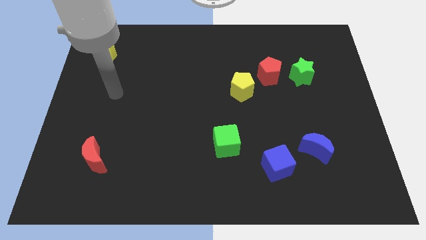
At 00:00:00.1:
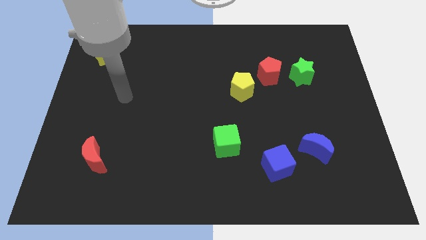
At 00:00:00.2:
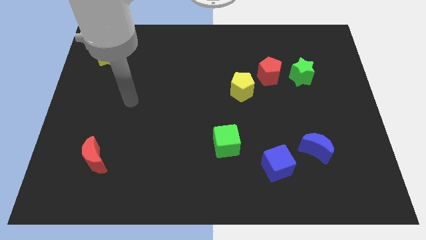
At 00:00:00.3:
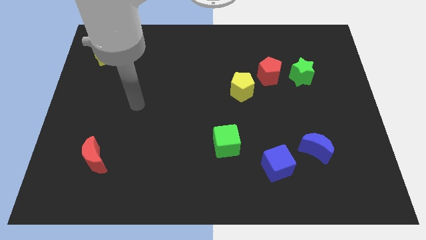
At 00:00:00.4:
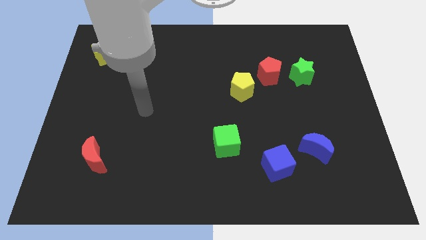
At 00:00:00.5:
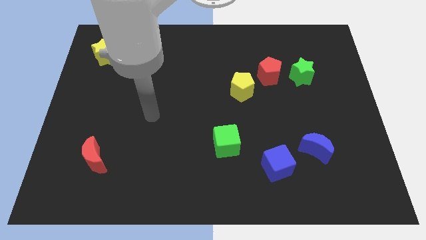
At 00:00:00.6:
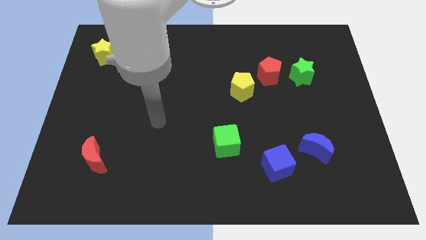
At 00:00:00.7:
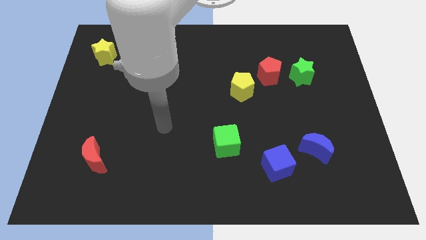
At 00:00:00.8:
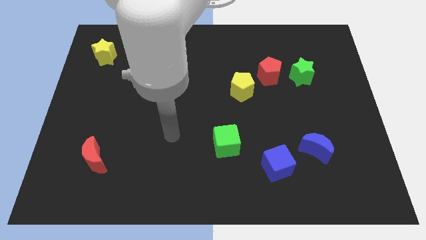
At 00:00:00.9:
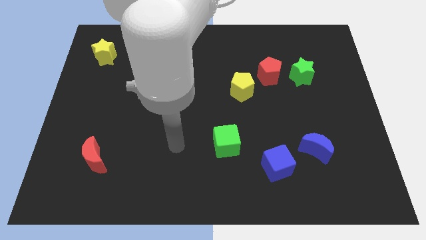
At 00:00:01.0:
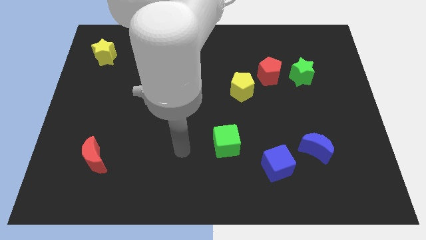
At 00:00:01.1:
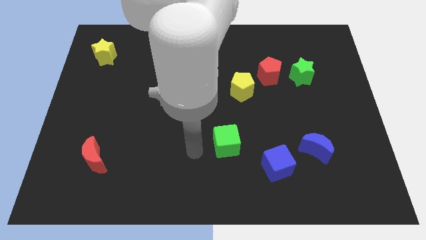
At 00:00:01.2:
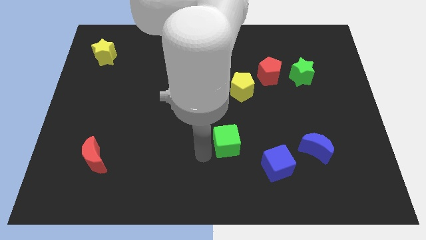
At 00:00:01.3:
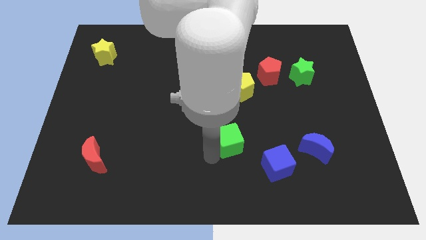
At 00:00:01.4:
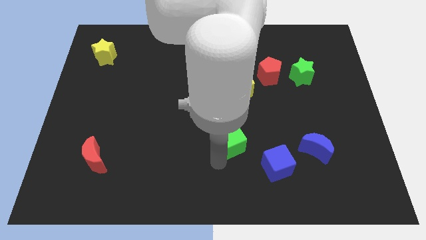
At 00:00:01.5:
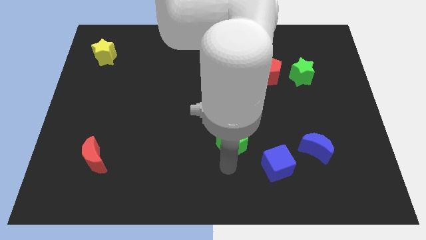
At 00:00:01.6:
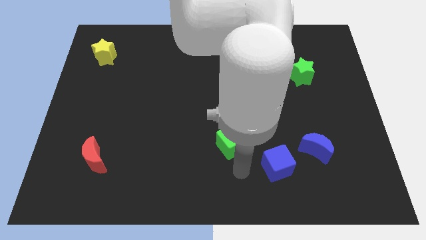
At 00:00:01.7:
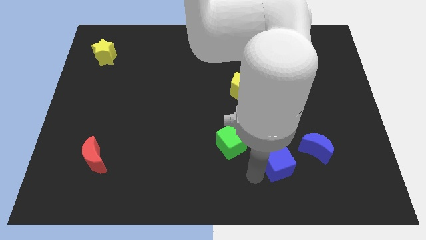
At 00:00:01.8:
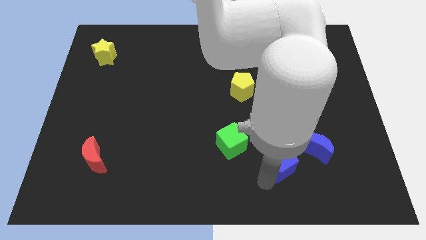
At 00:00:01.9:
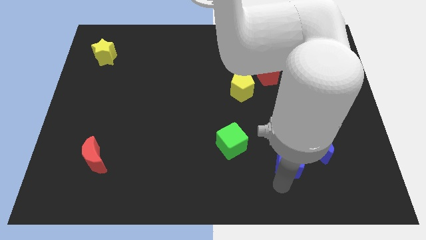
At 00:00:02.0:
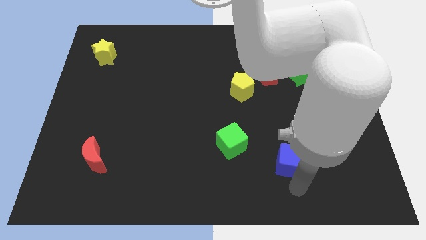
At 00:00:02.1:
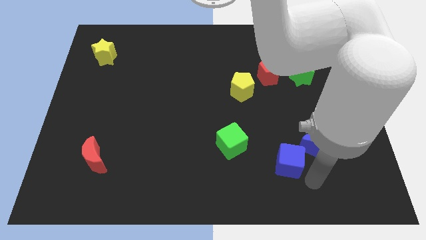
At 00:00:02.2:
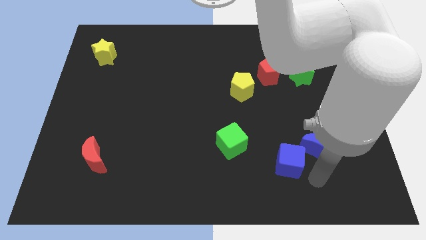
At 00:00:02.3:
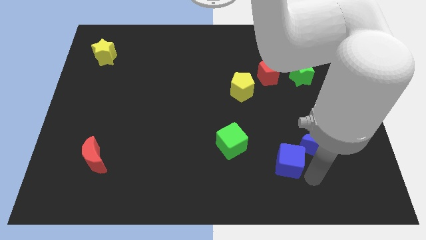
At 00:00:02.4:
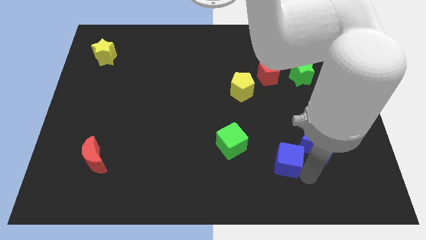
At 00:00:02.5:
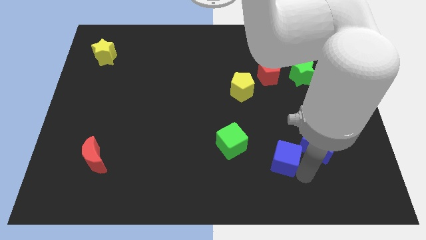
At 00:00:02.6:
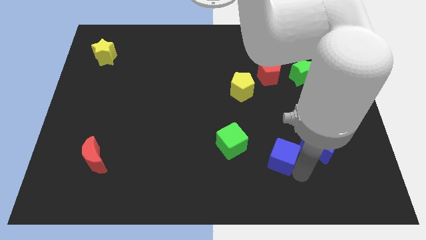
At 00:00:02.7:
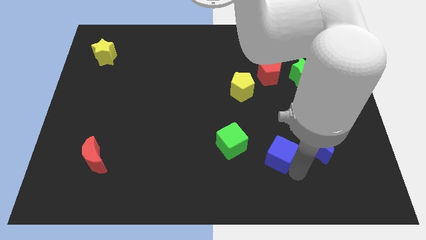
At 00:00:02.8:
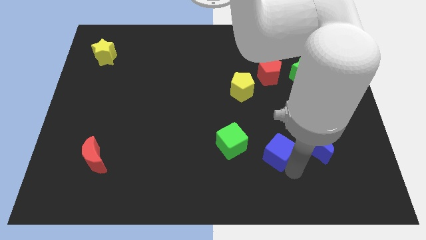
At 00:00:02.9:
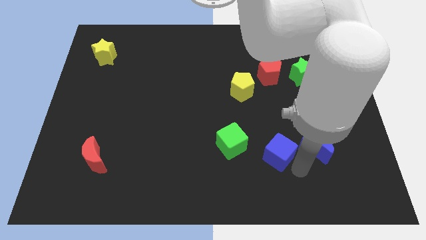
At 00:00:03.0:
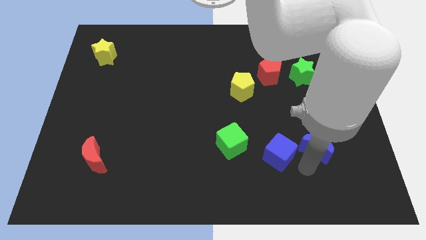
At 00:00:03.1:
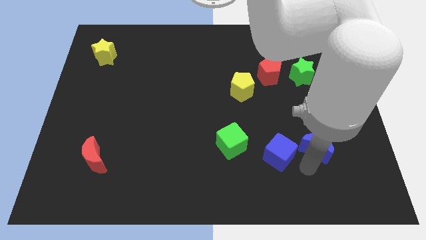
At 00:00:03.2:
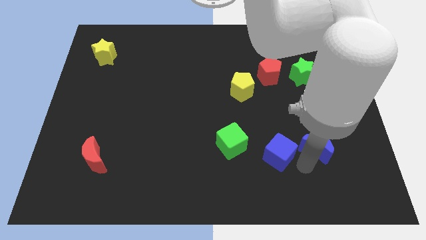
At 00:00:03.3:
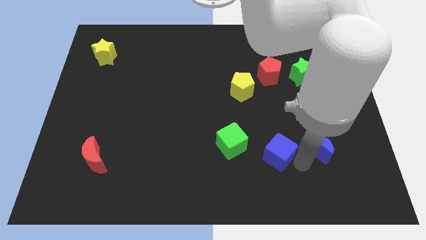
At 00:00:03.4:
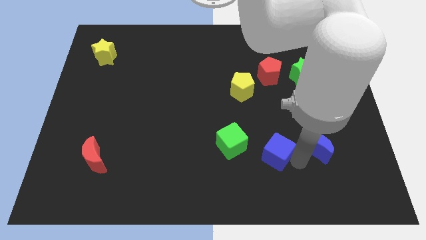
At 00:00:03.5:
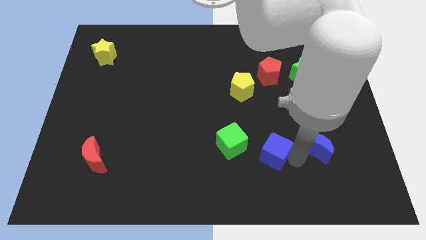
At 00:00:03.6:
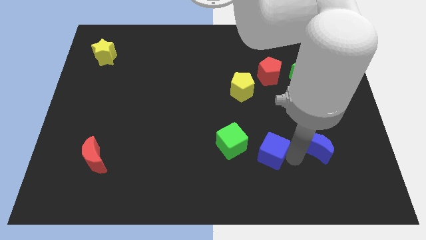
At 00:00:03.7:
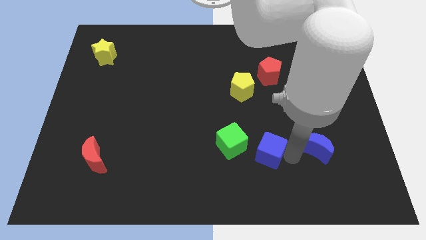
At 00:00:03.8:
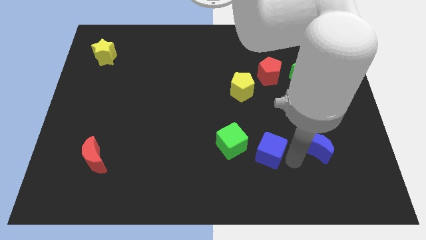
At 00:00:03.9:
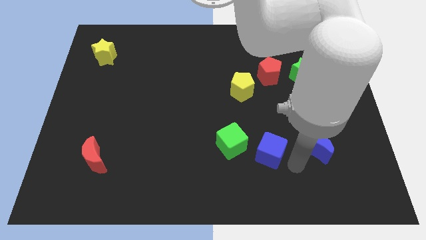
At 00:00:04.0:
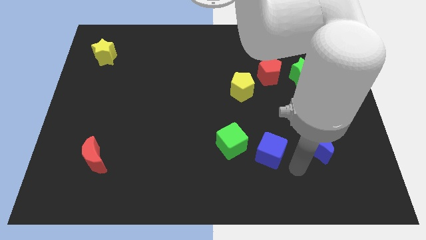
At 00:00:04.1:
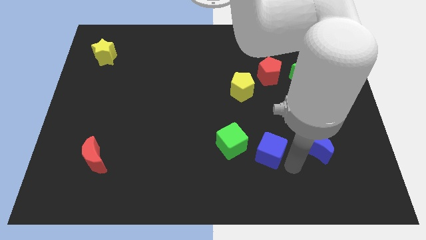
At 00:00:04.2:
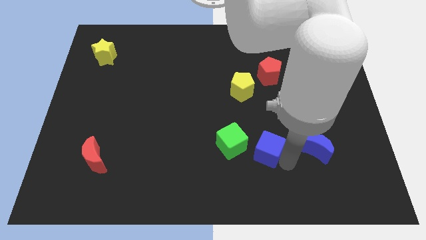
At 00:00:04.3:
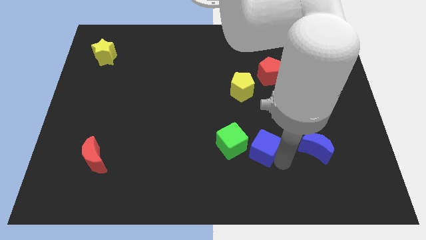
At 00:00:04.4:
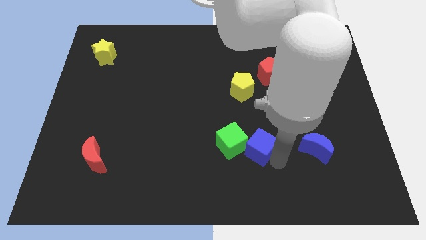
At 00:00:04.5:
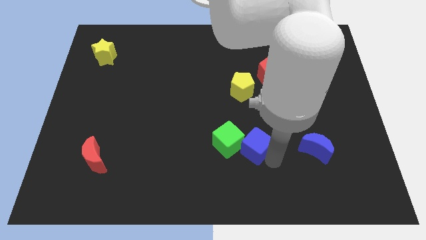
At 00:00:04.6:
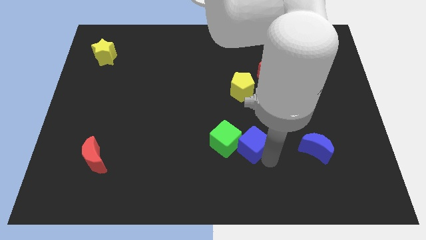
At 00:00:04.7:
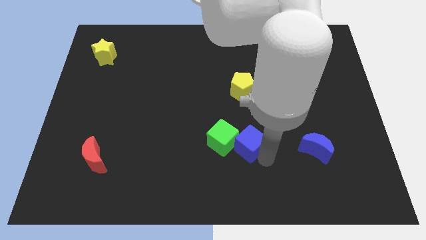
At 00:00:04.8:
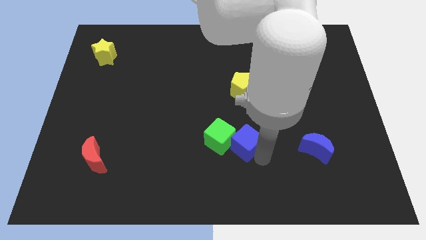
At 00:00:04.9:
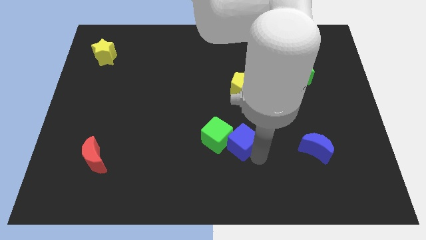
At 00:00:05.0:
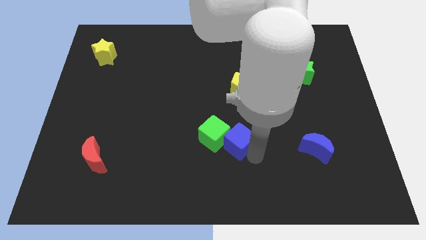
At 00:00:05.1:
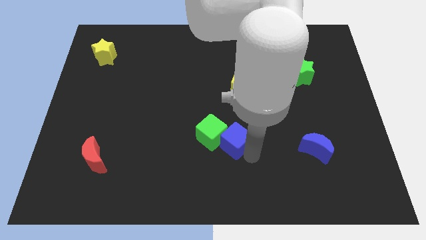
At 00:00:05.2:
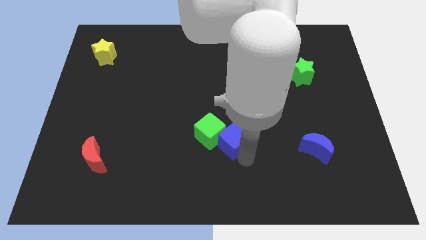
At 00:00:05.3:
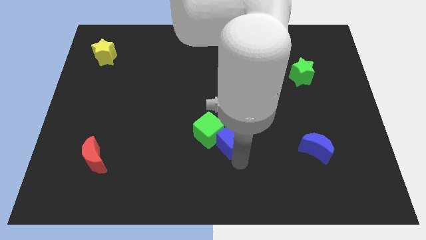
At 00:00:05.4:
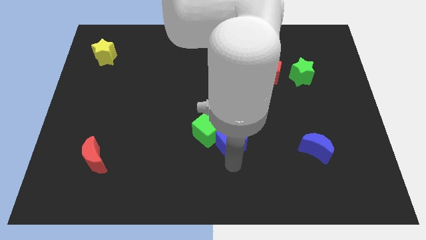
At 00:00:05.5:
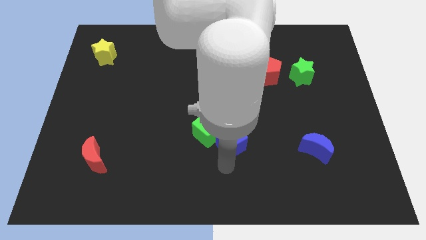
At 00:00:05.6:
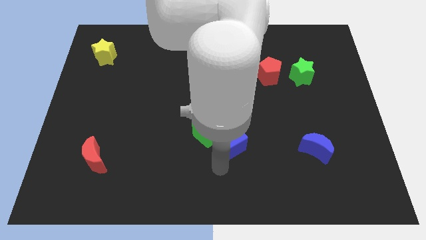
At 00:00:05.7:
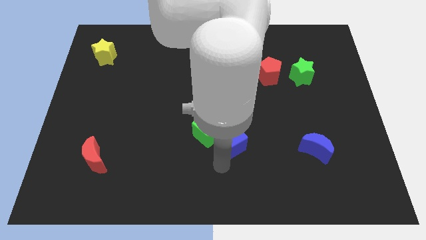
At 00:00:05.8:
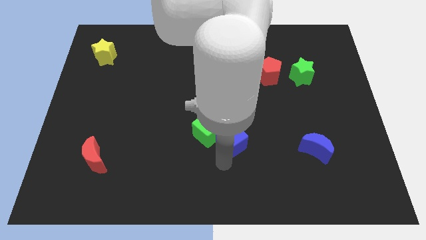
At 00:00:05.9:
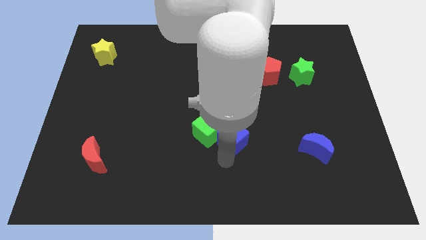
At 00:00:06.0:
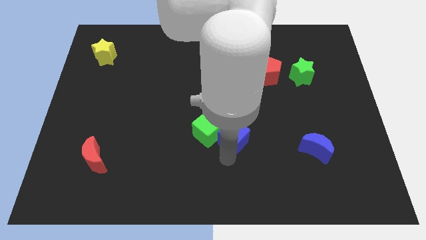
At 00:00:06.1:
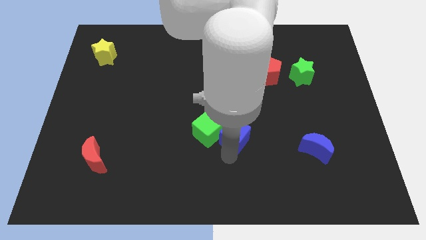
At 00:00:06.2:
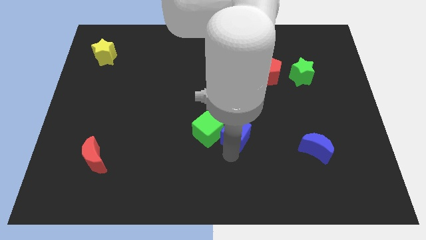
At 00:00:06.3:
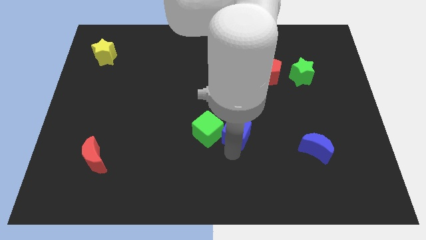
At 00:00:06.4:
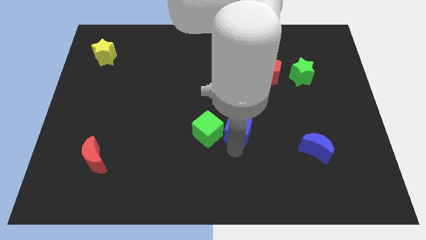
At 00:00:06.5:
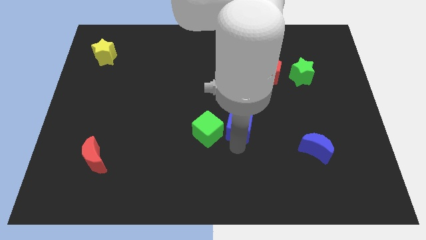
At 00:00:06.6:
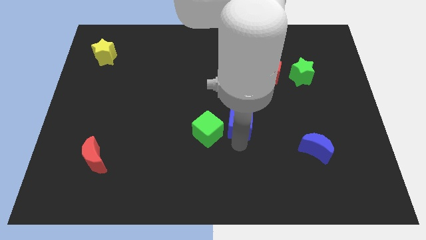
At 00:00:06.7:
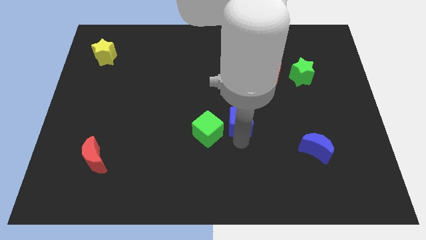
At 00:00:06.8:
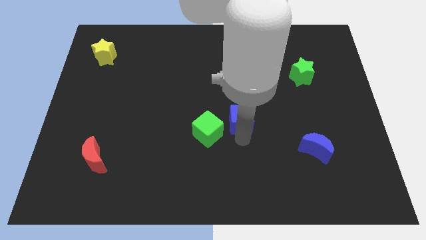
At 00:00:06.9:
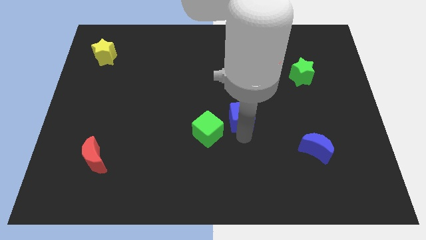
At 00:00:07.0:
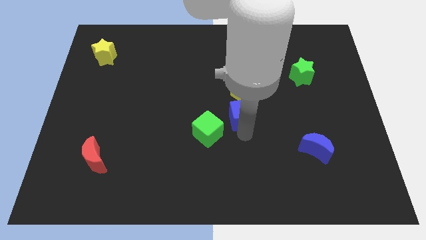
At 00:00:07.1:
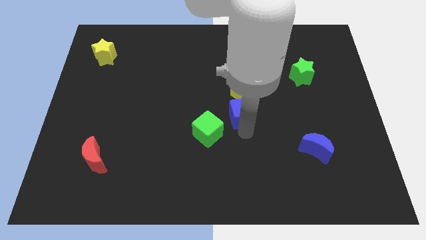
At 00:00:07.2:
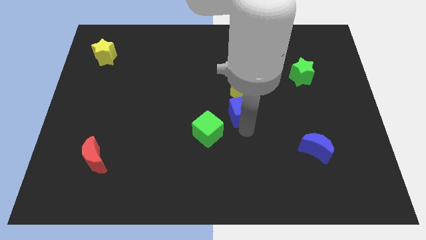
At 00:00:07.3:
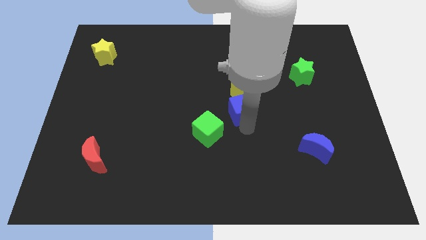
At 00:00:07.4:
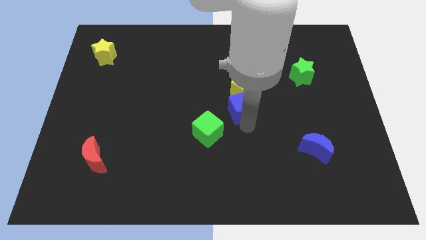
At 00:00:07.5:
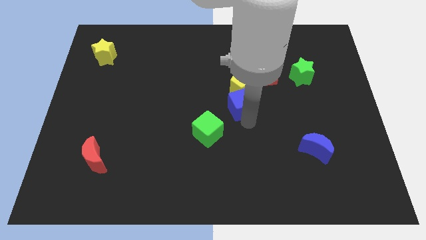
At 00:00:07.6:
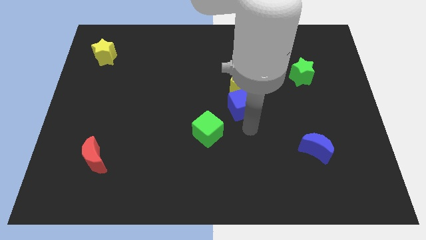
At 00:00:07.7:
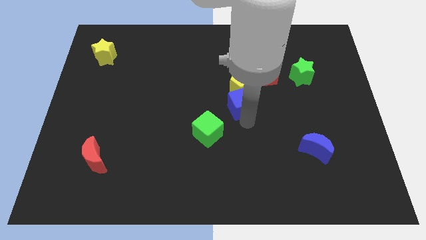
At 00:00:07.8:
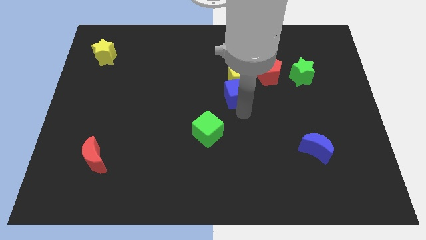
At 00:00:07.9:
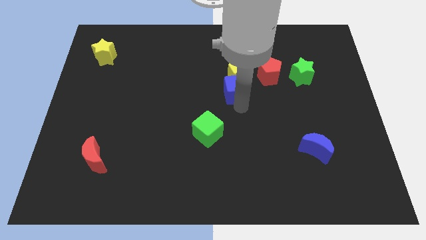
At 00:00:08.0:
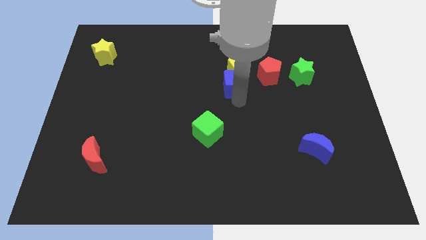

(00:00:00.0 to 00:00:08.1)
move the blue cube to the left side of the red pentagon
